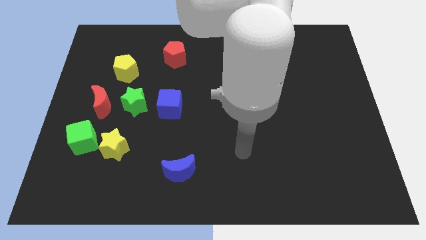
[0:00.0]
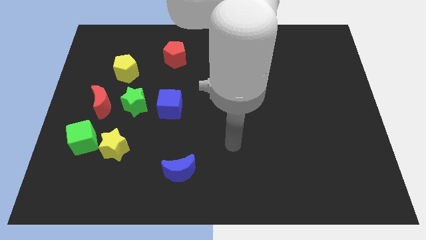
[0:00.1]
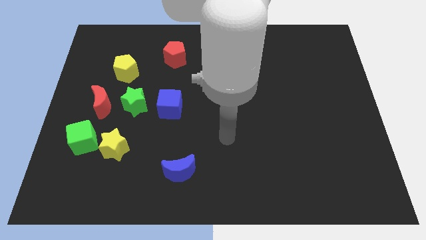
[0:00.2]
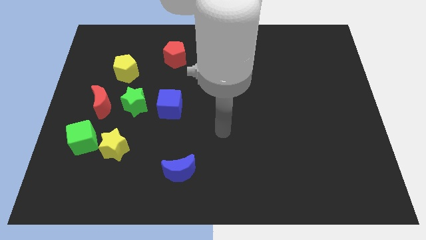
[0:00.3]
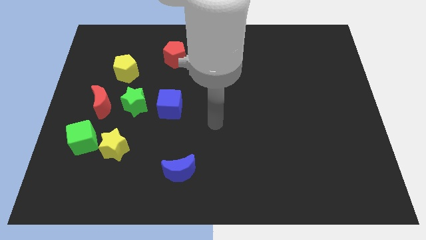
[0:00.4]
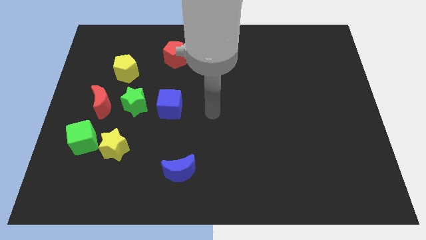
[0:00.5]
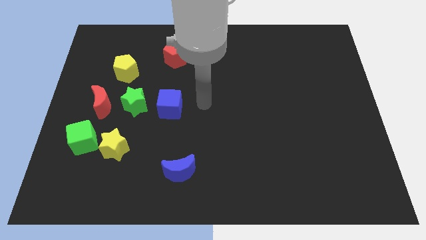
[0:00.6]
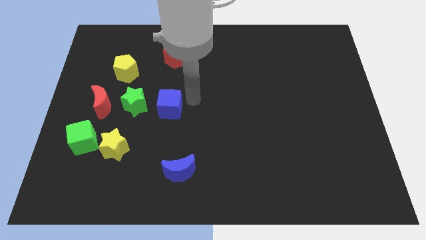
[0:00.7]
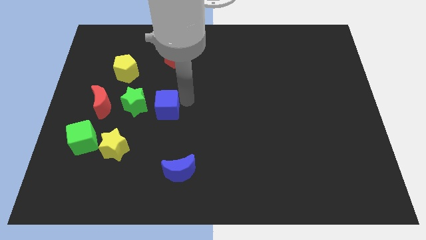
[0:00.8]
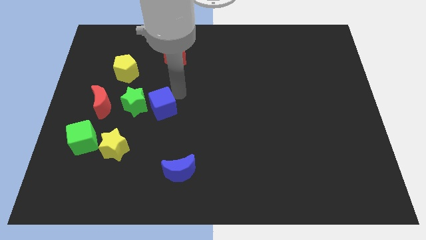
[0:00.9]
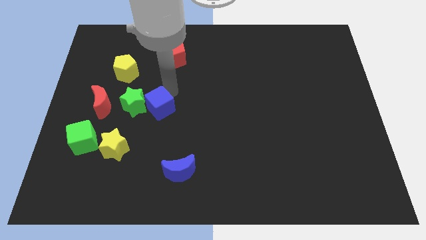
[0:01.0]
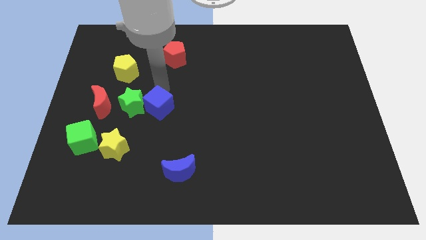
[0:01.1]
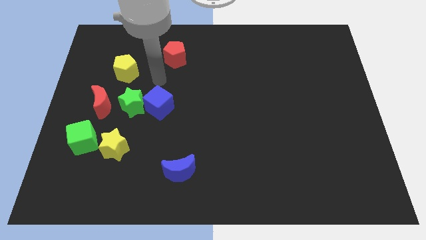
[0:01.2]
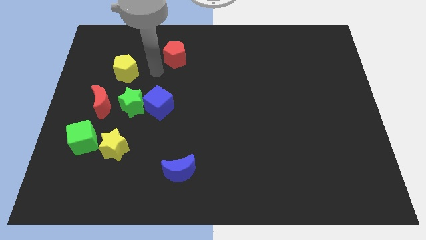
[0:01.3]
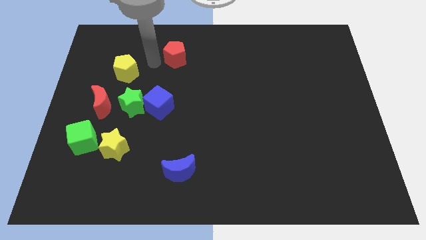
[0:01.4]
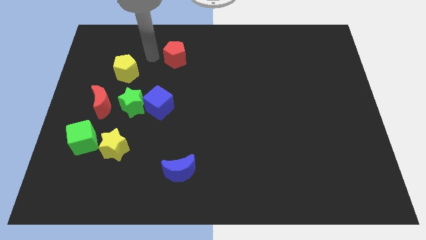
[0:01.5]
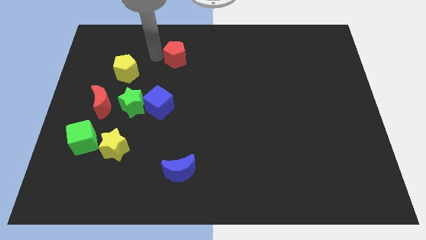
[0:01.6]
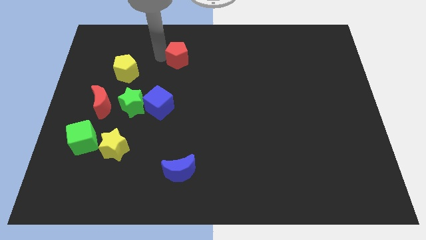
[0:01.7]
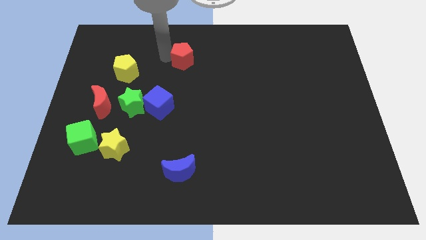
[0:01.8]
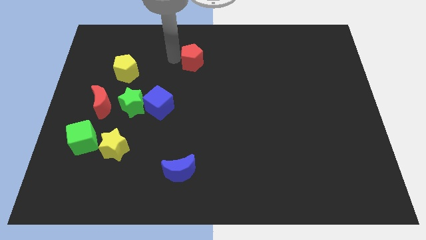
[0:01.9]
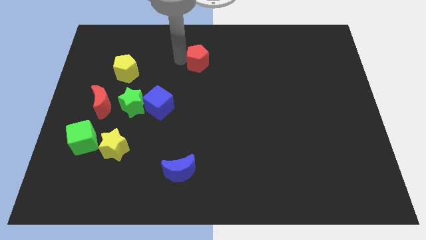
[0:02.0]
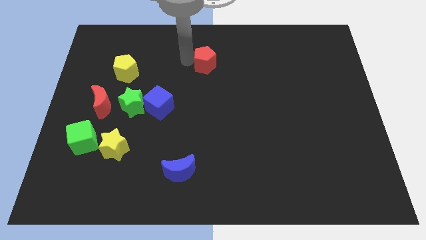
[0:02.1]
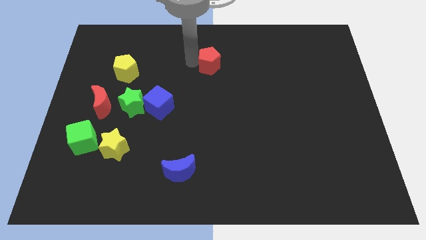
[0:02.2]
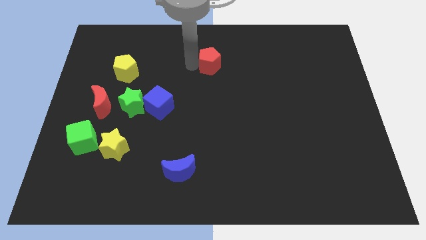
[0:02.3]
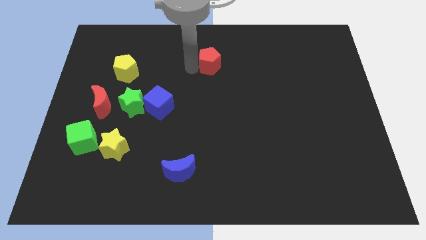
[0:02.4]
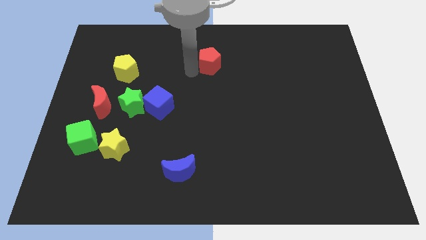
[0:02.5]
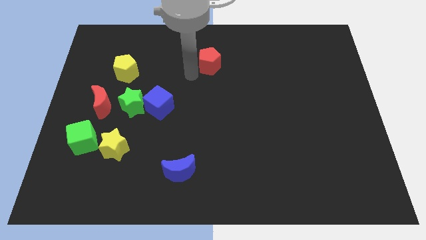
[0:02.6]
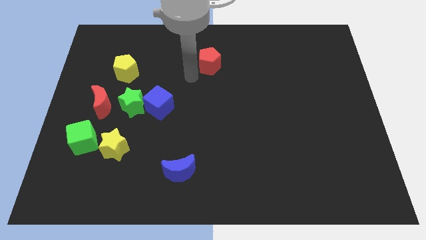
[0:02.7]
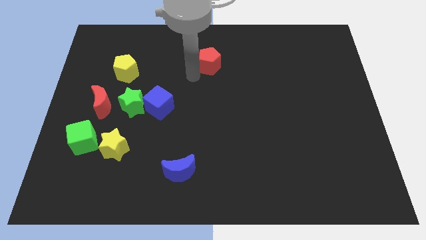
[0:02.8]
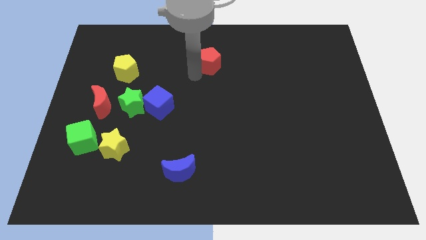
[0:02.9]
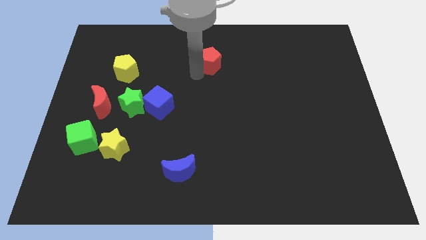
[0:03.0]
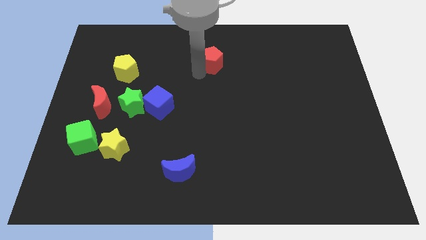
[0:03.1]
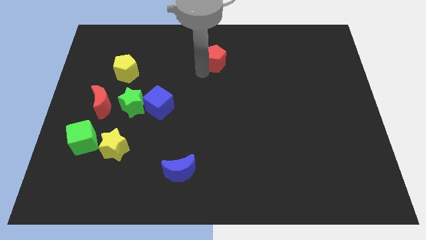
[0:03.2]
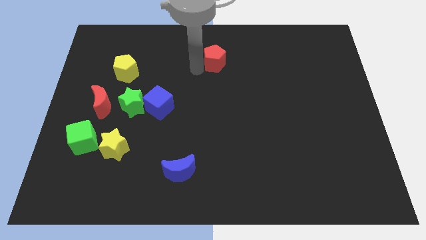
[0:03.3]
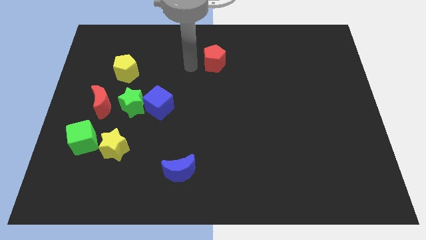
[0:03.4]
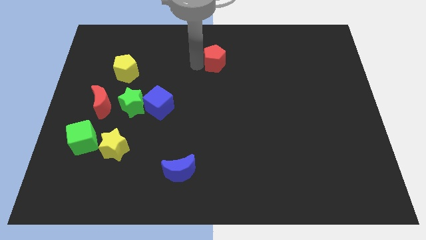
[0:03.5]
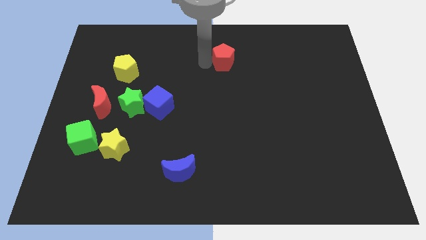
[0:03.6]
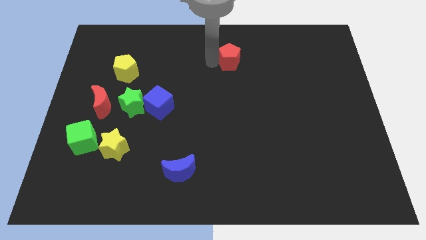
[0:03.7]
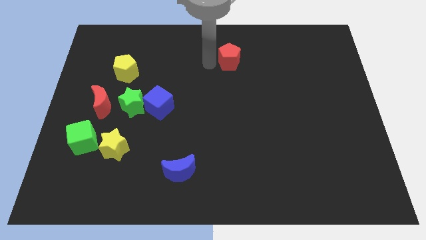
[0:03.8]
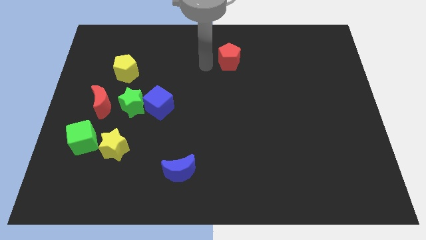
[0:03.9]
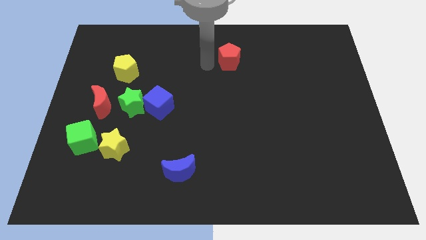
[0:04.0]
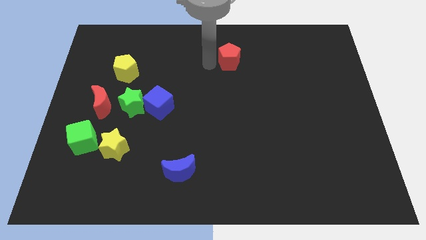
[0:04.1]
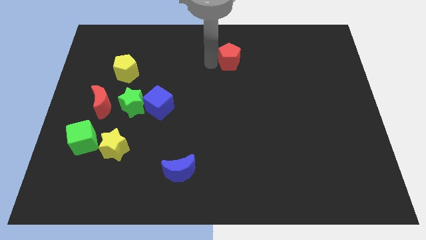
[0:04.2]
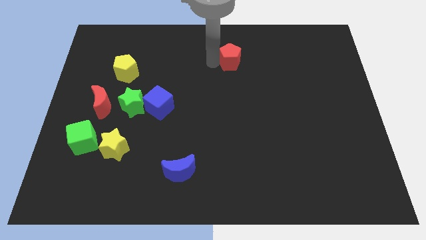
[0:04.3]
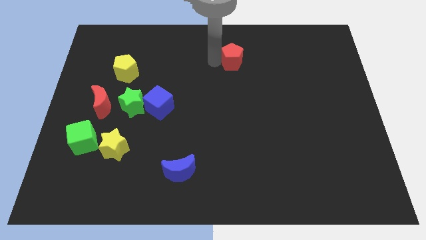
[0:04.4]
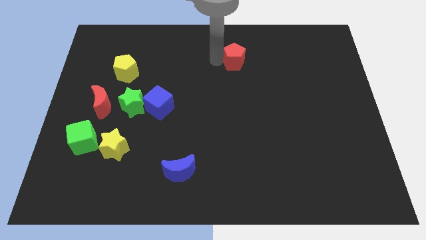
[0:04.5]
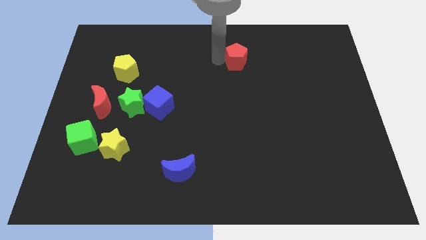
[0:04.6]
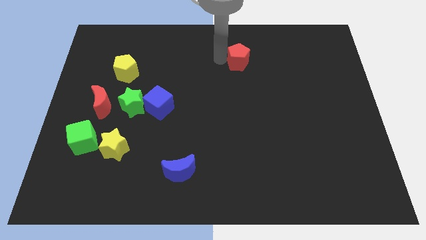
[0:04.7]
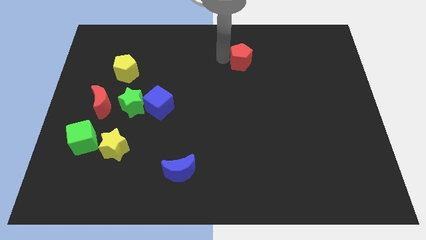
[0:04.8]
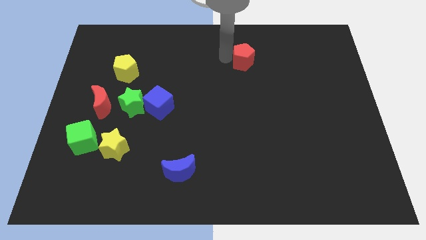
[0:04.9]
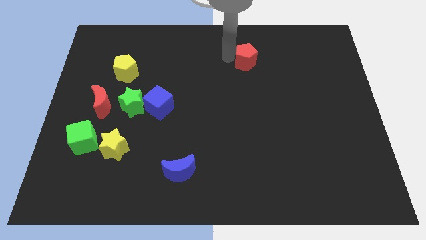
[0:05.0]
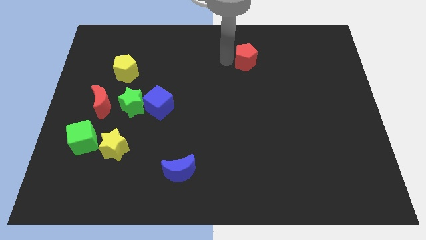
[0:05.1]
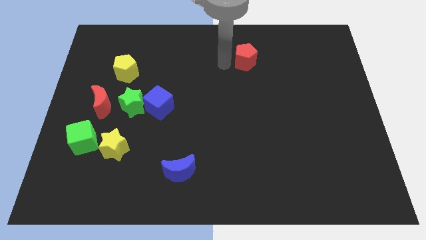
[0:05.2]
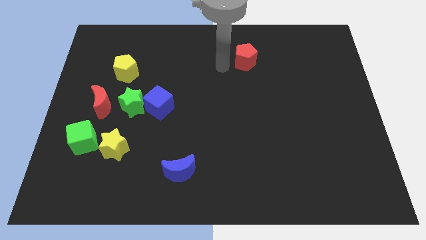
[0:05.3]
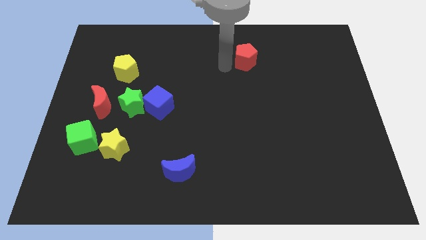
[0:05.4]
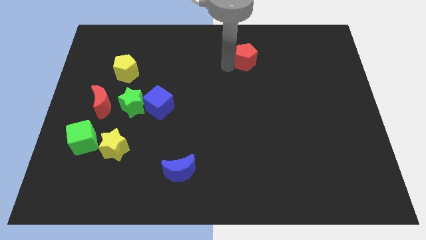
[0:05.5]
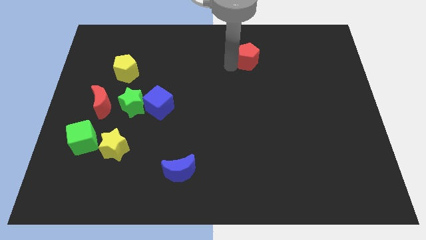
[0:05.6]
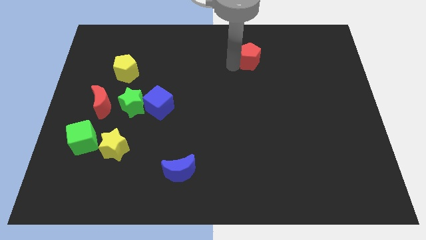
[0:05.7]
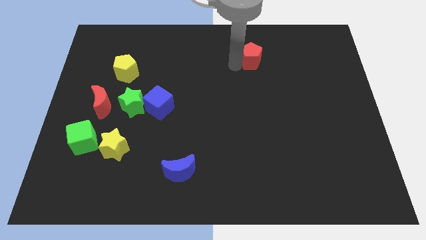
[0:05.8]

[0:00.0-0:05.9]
move the red pentagon to the right

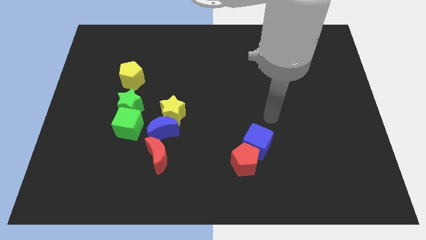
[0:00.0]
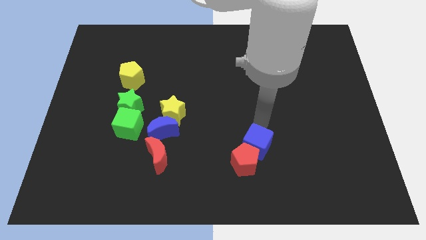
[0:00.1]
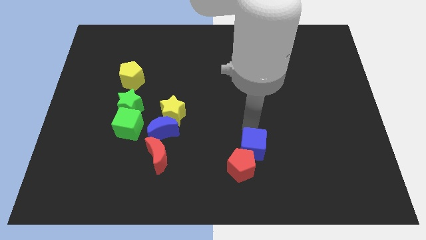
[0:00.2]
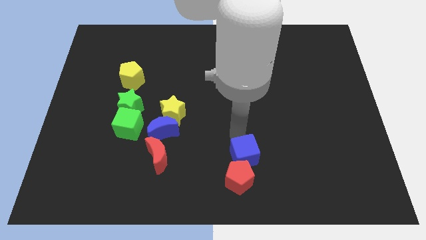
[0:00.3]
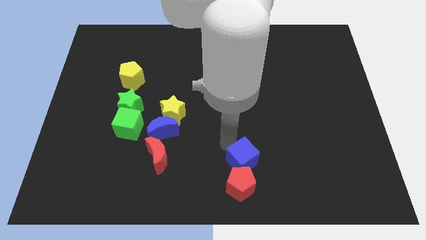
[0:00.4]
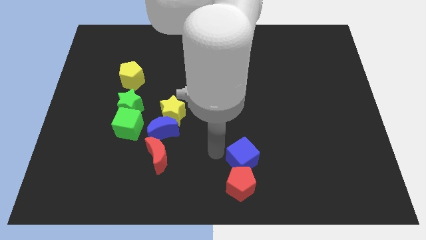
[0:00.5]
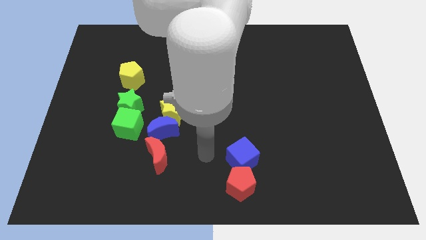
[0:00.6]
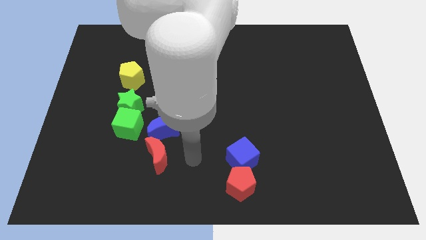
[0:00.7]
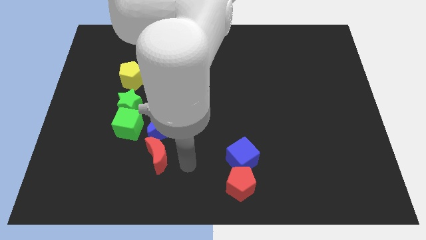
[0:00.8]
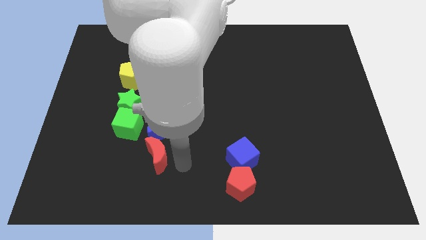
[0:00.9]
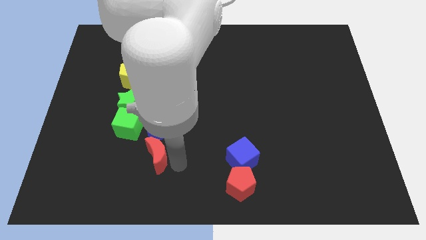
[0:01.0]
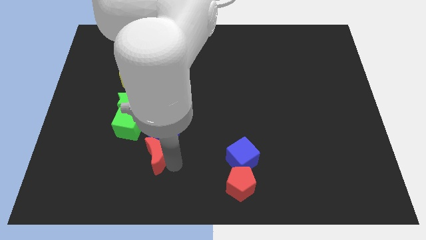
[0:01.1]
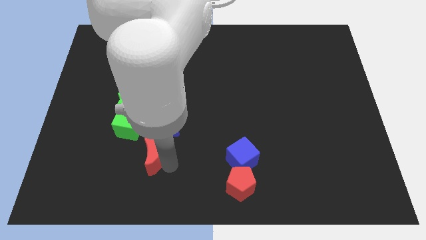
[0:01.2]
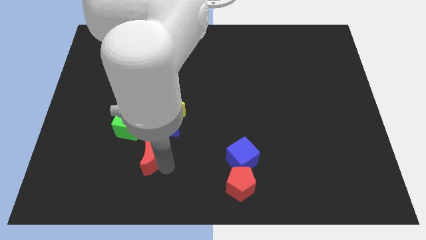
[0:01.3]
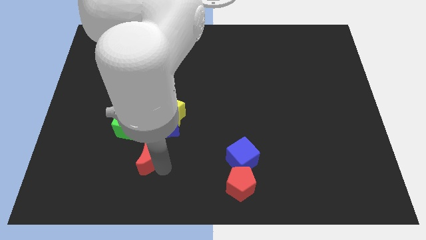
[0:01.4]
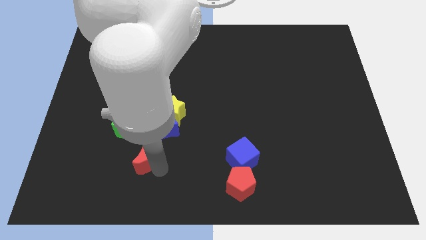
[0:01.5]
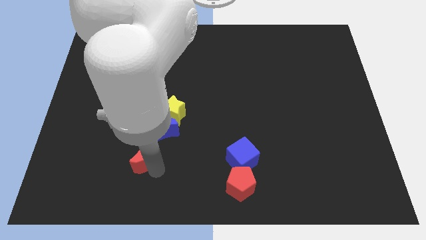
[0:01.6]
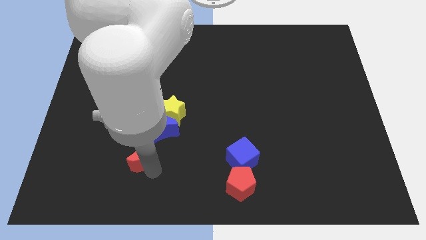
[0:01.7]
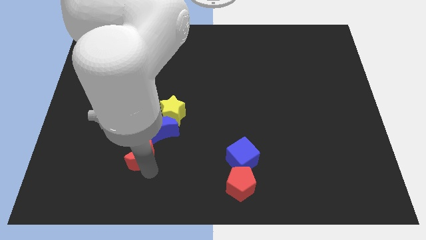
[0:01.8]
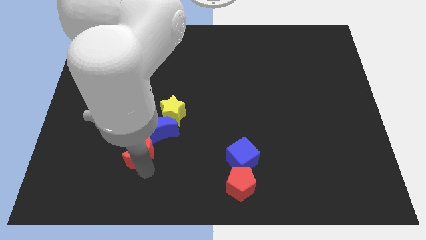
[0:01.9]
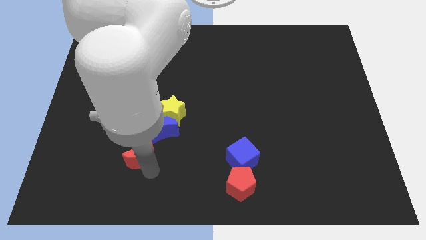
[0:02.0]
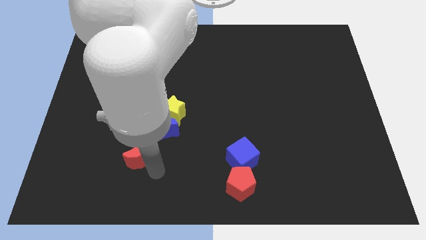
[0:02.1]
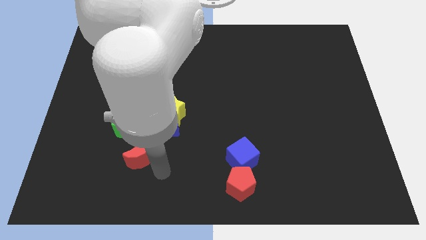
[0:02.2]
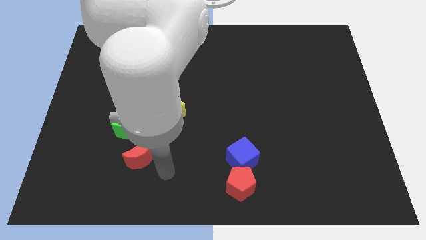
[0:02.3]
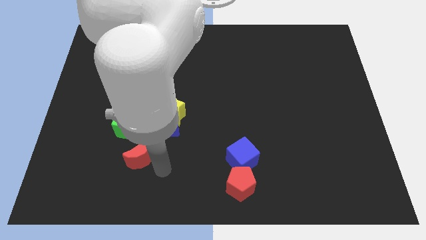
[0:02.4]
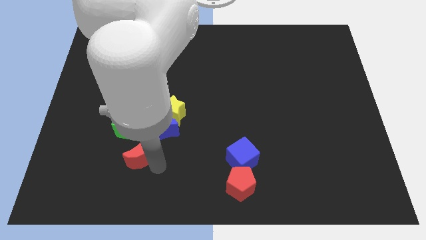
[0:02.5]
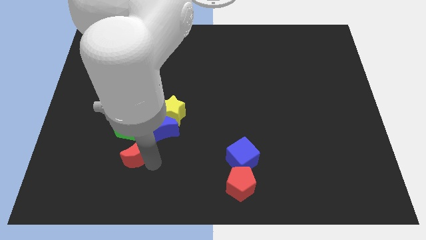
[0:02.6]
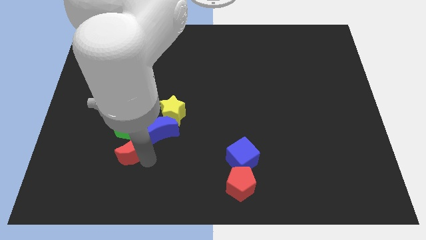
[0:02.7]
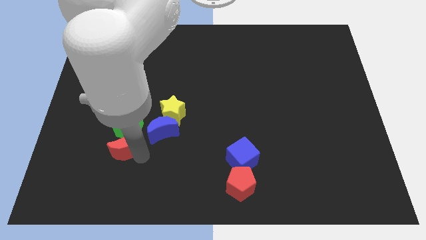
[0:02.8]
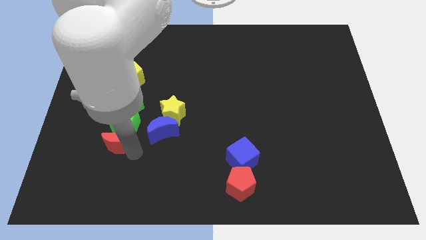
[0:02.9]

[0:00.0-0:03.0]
move the red moon a little bit diagonally upwards and to the left
